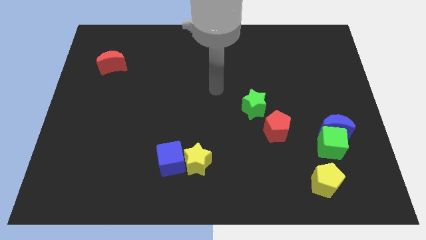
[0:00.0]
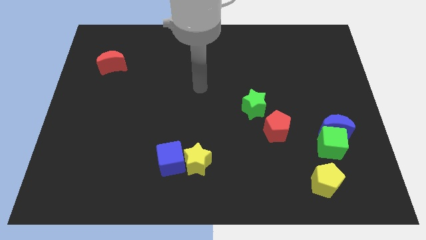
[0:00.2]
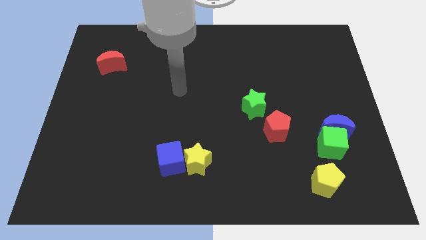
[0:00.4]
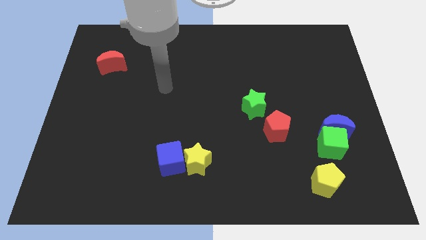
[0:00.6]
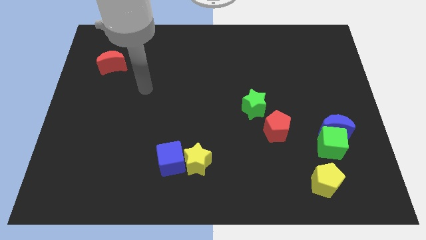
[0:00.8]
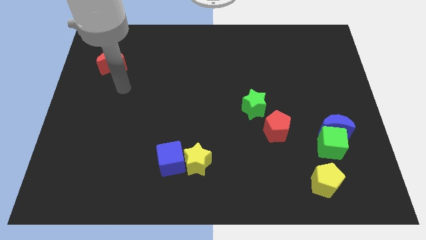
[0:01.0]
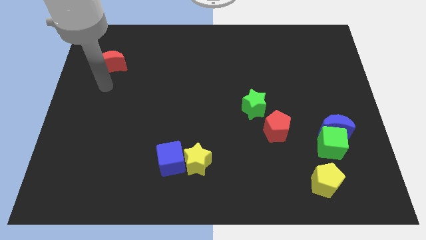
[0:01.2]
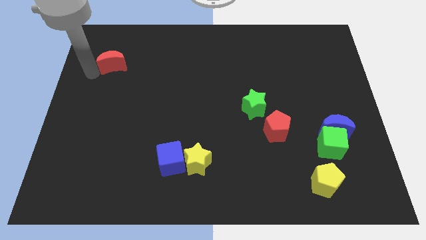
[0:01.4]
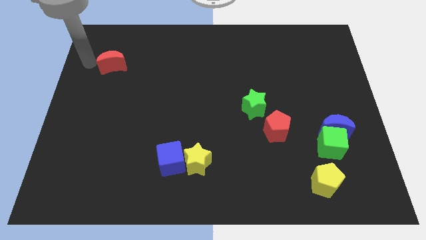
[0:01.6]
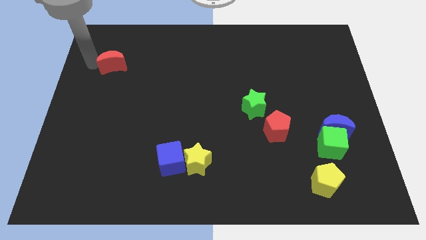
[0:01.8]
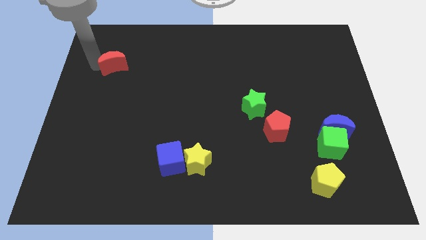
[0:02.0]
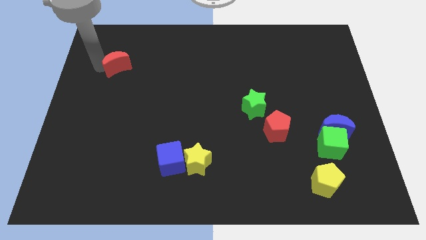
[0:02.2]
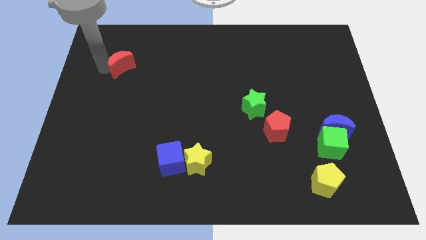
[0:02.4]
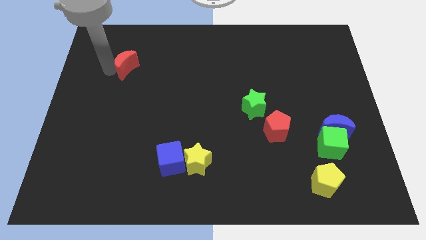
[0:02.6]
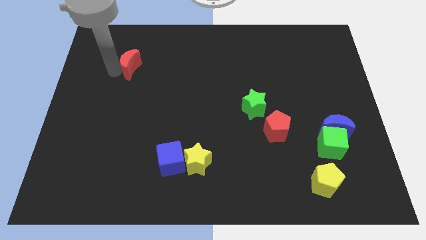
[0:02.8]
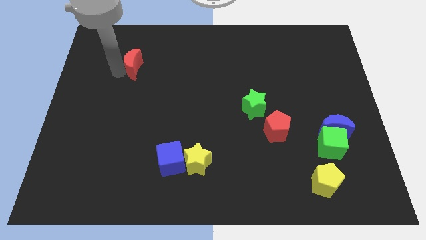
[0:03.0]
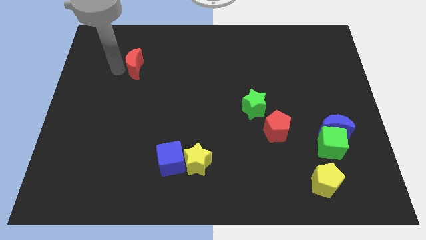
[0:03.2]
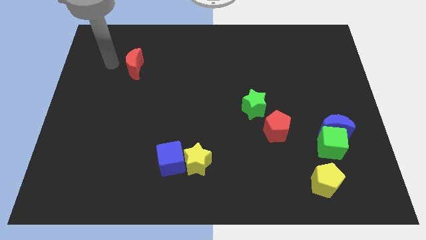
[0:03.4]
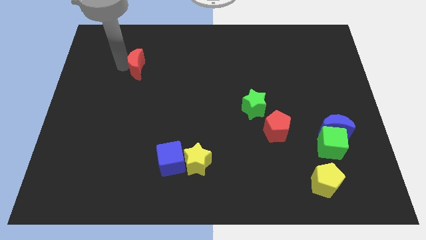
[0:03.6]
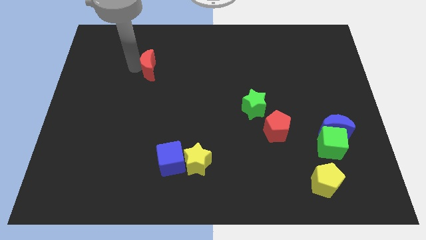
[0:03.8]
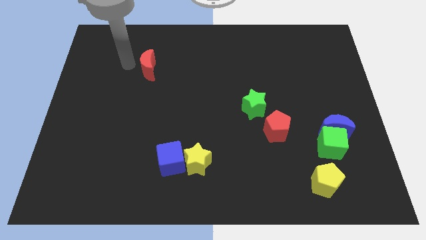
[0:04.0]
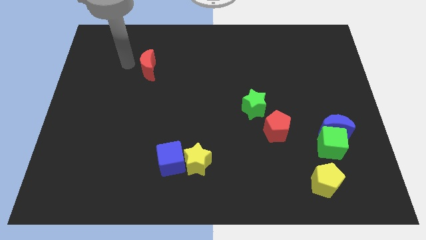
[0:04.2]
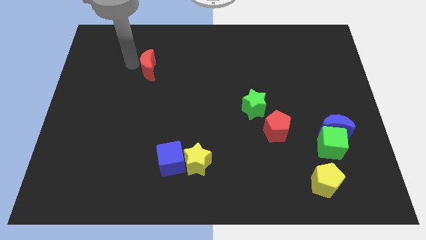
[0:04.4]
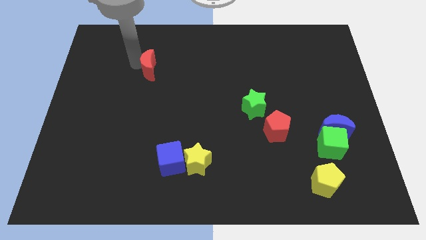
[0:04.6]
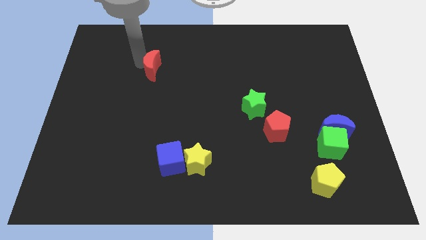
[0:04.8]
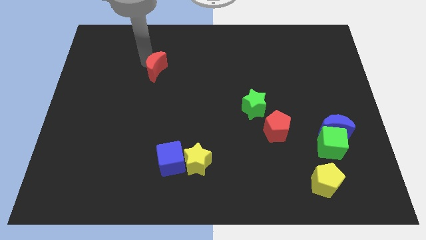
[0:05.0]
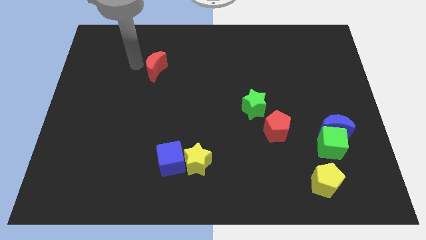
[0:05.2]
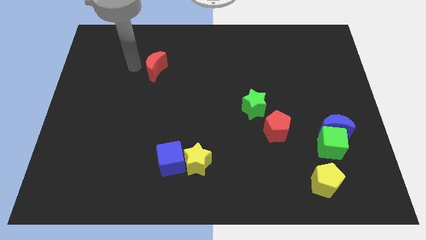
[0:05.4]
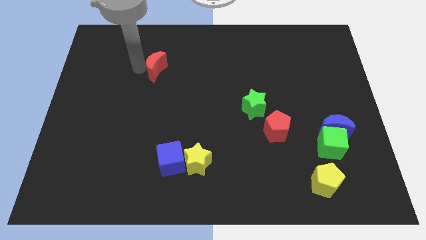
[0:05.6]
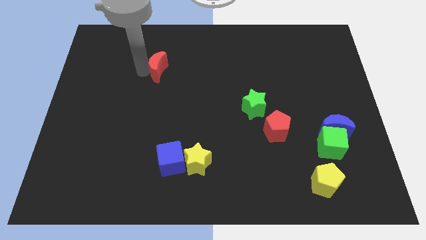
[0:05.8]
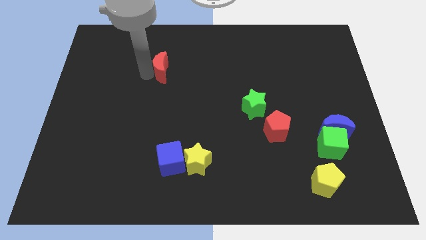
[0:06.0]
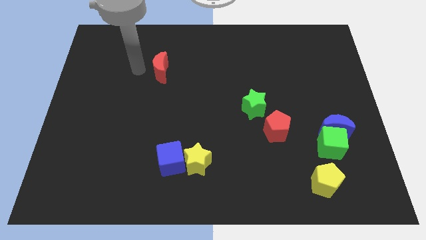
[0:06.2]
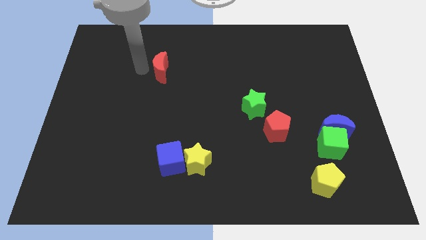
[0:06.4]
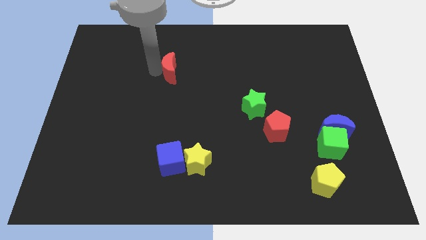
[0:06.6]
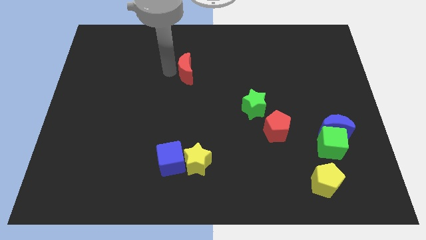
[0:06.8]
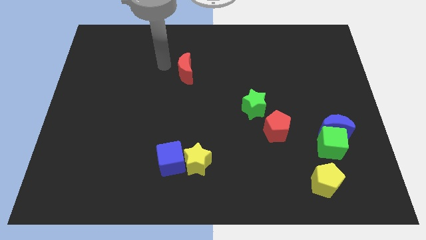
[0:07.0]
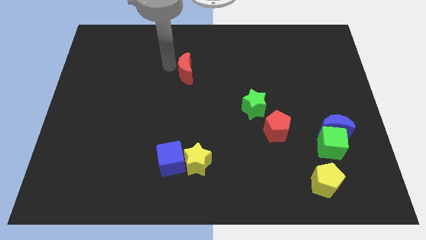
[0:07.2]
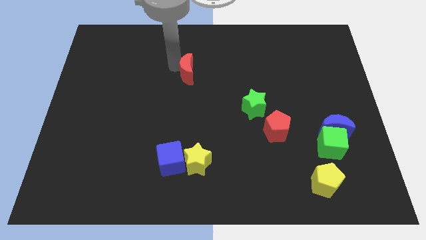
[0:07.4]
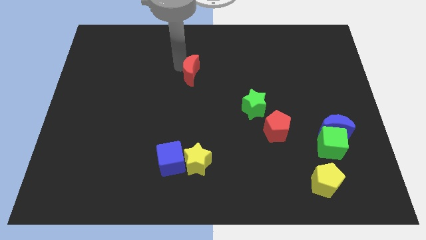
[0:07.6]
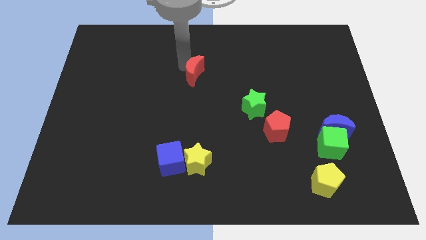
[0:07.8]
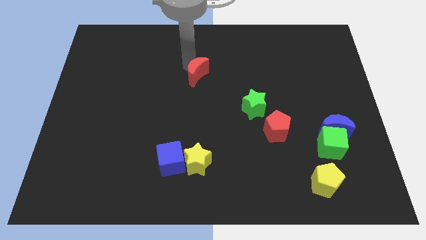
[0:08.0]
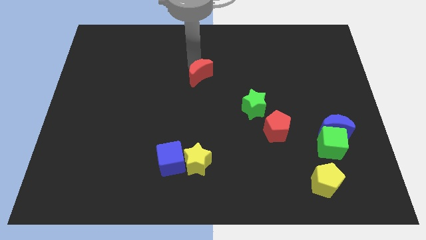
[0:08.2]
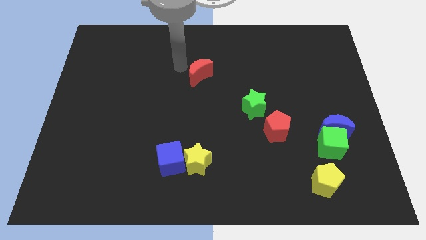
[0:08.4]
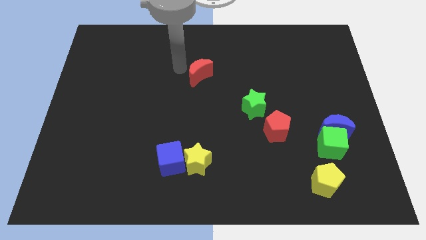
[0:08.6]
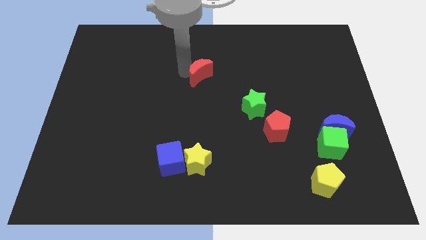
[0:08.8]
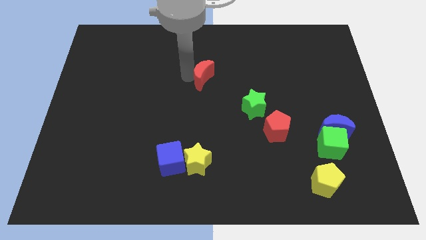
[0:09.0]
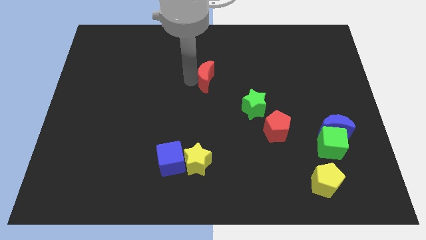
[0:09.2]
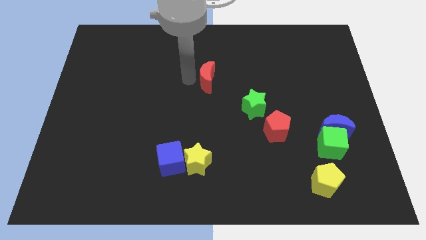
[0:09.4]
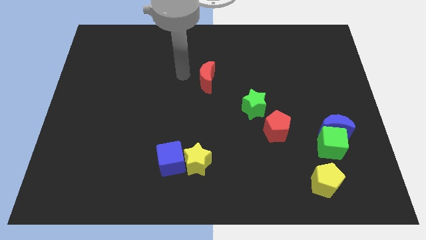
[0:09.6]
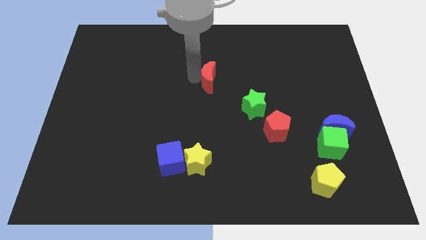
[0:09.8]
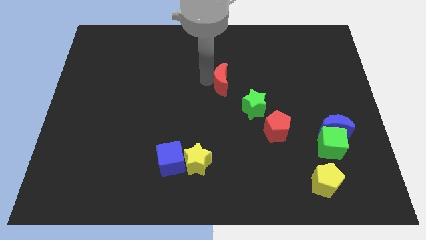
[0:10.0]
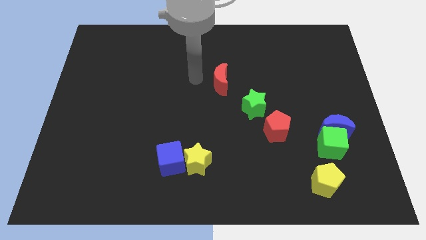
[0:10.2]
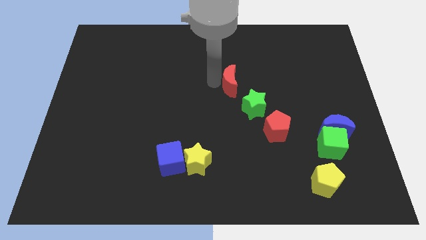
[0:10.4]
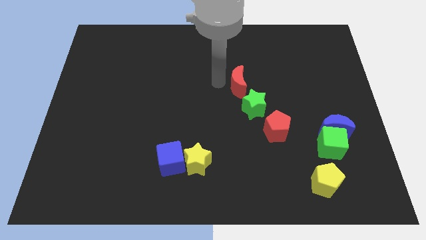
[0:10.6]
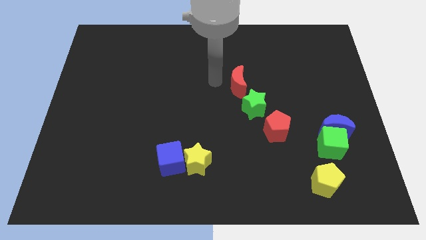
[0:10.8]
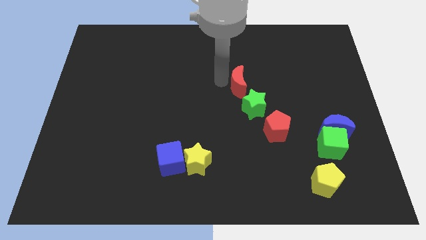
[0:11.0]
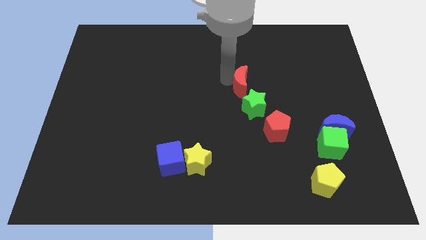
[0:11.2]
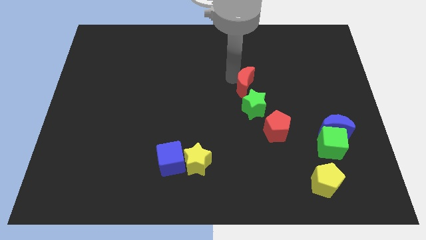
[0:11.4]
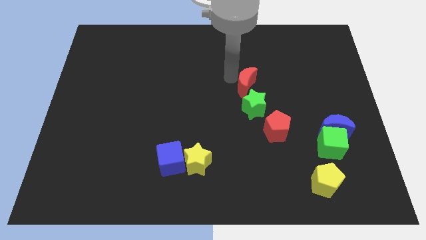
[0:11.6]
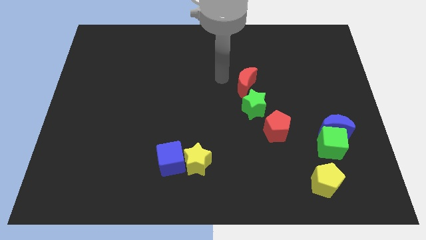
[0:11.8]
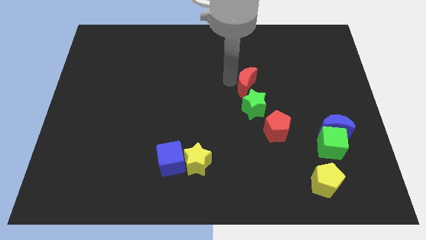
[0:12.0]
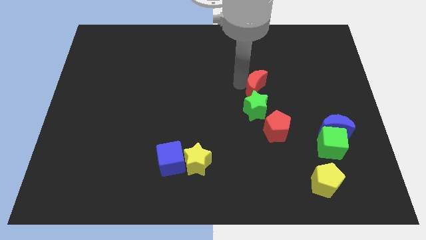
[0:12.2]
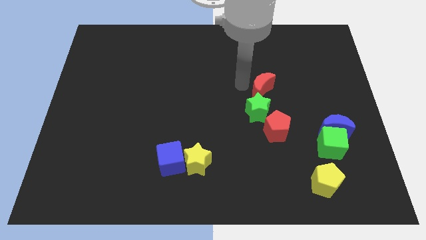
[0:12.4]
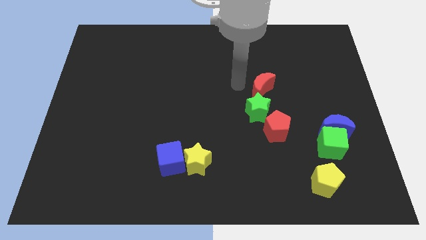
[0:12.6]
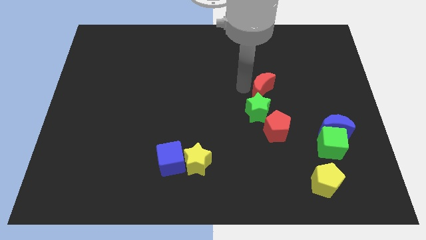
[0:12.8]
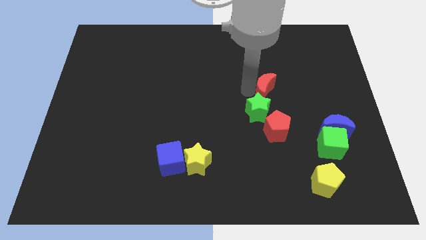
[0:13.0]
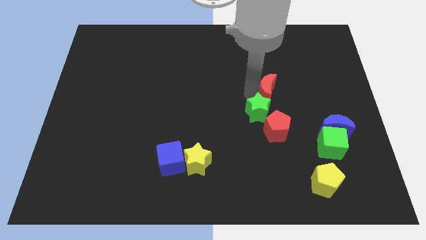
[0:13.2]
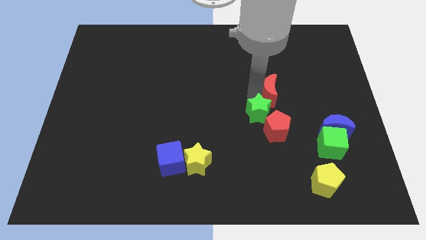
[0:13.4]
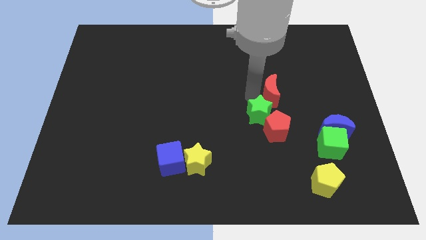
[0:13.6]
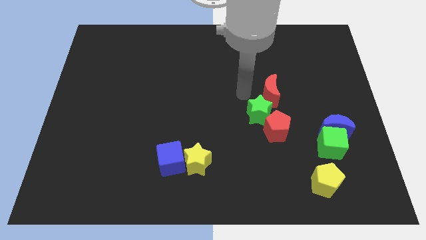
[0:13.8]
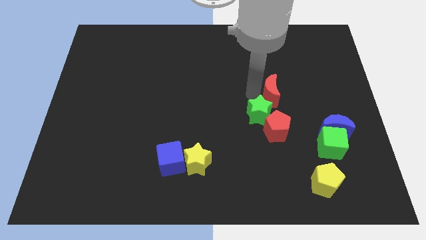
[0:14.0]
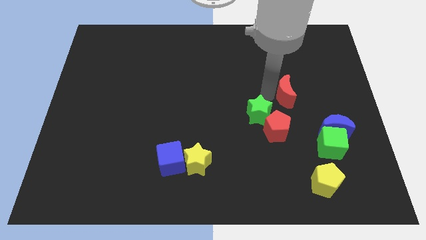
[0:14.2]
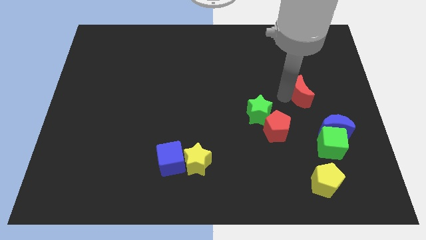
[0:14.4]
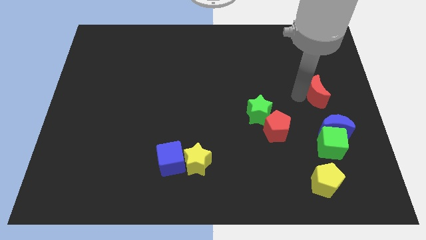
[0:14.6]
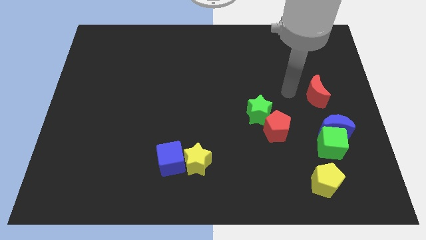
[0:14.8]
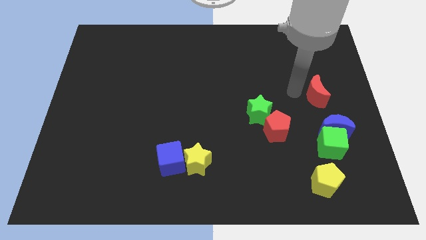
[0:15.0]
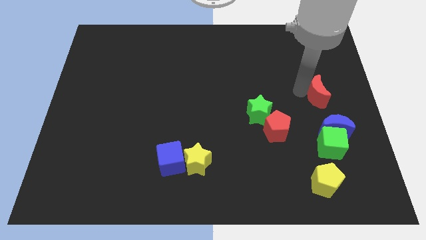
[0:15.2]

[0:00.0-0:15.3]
push the red moon to the right side
